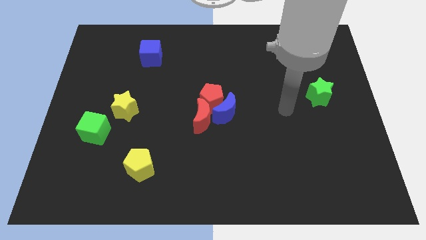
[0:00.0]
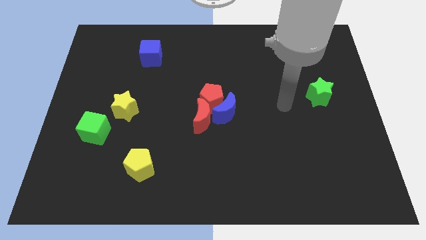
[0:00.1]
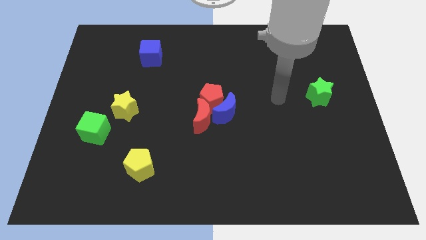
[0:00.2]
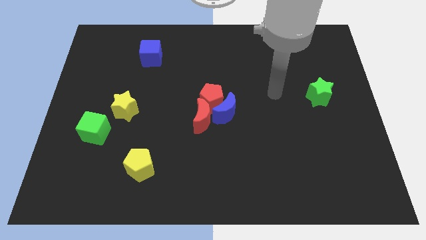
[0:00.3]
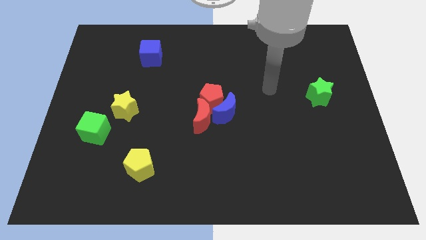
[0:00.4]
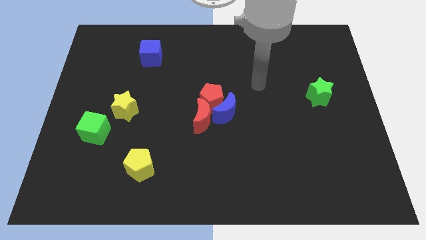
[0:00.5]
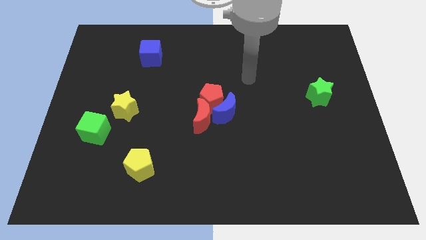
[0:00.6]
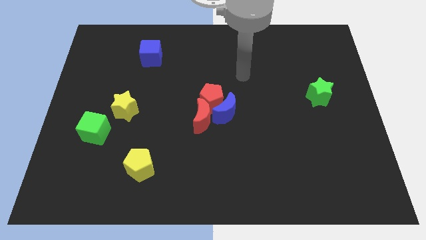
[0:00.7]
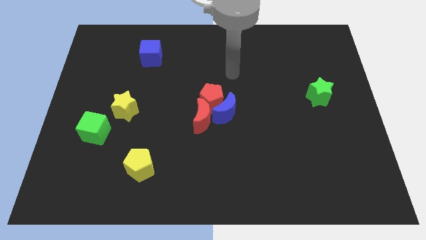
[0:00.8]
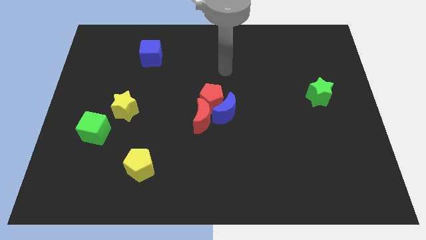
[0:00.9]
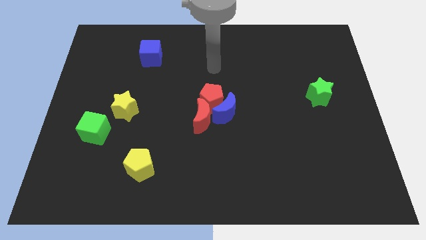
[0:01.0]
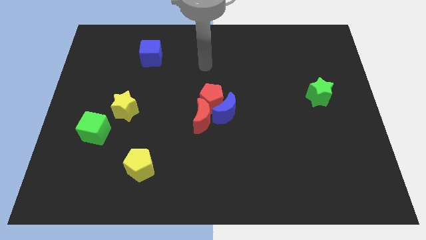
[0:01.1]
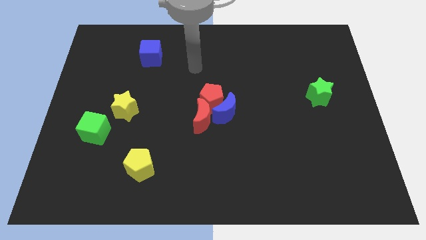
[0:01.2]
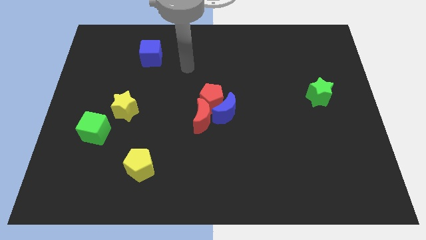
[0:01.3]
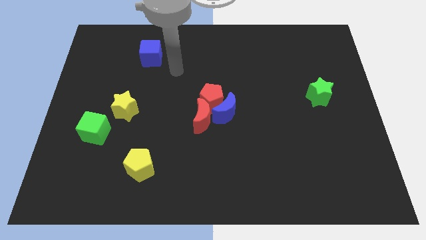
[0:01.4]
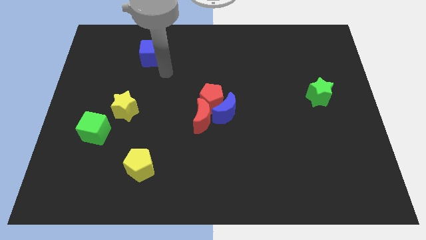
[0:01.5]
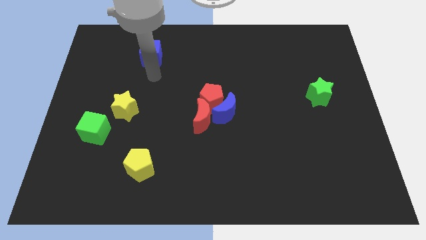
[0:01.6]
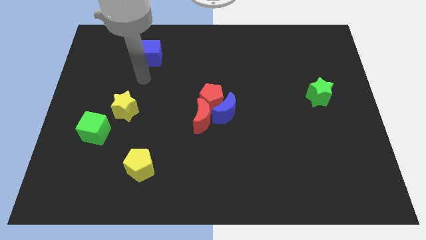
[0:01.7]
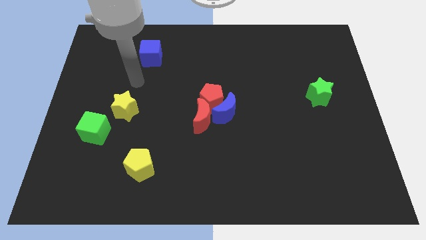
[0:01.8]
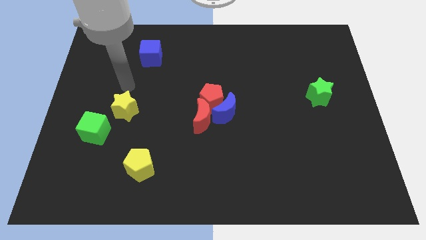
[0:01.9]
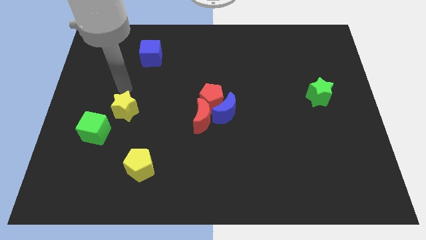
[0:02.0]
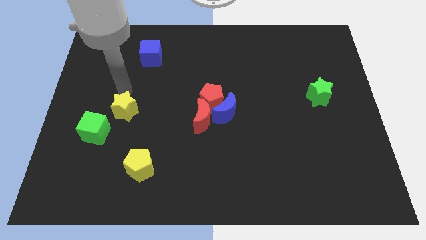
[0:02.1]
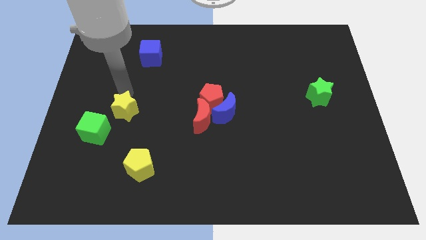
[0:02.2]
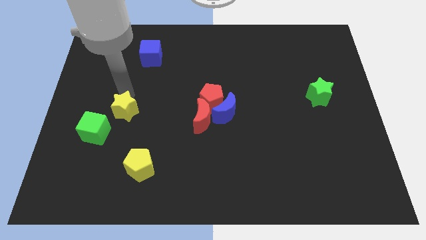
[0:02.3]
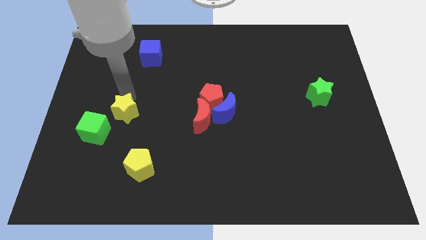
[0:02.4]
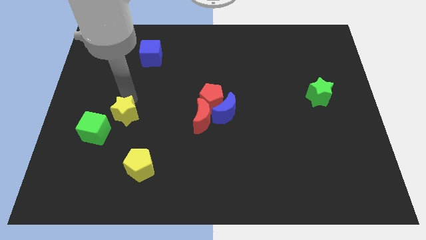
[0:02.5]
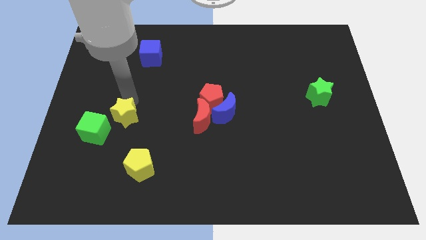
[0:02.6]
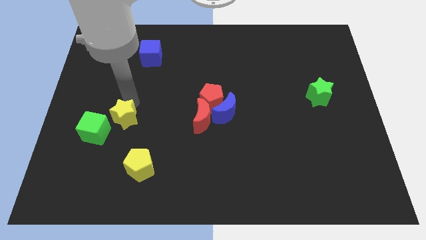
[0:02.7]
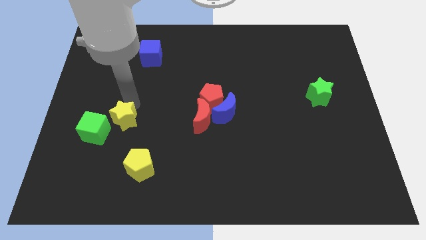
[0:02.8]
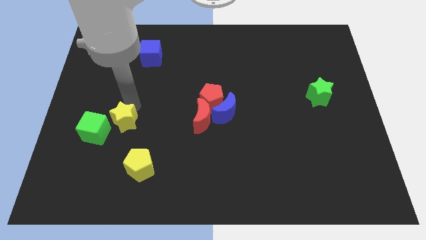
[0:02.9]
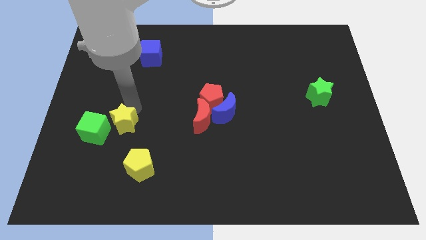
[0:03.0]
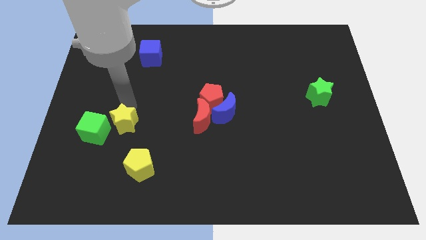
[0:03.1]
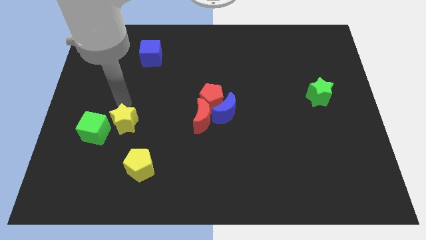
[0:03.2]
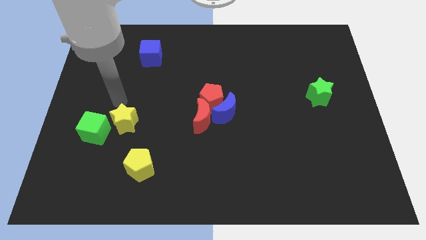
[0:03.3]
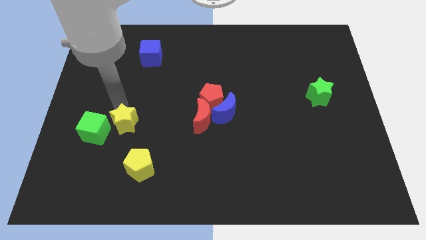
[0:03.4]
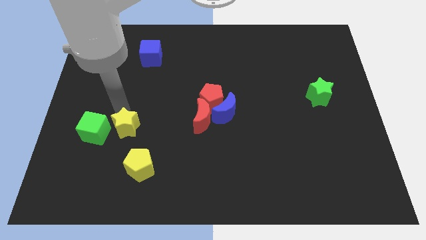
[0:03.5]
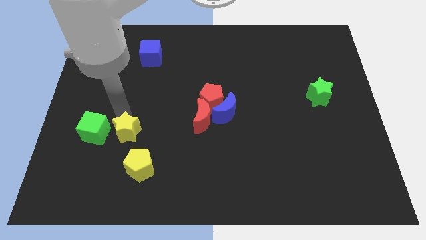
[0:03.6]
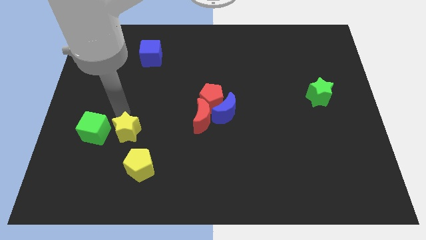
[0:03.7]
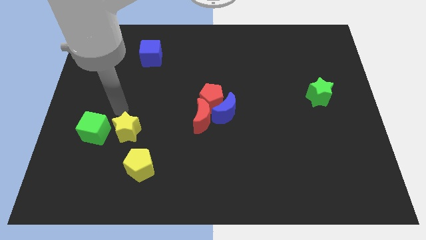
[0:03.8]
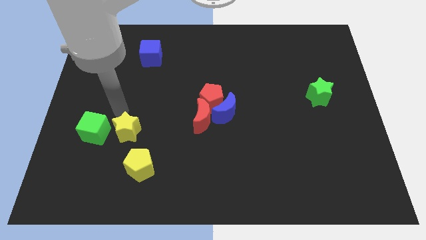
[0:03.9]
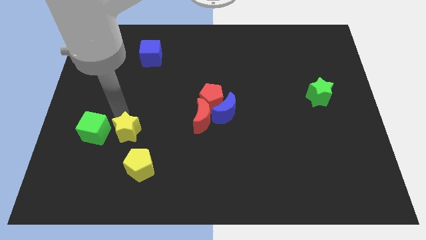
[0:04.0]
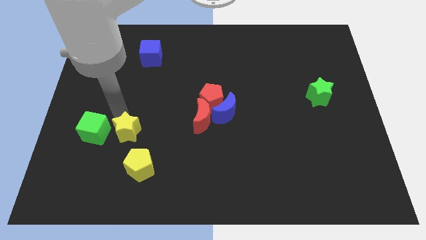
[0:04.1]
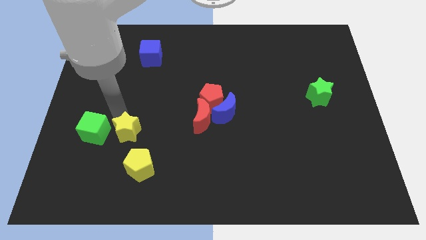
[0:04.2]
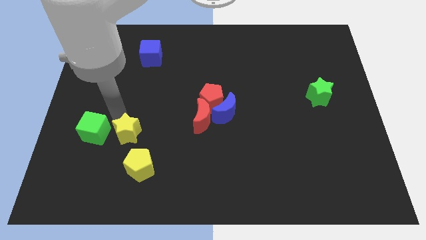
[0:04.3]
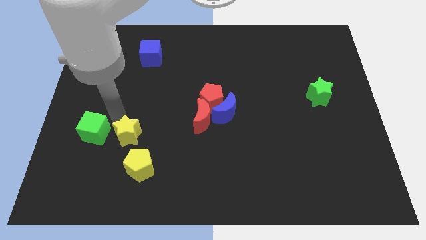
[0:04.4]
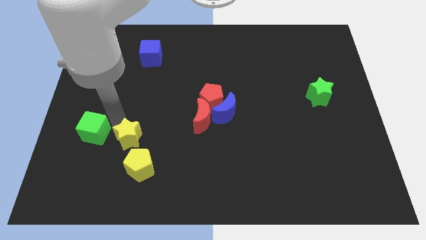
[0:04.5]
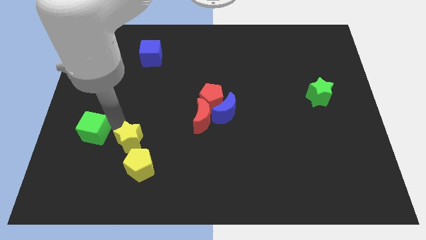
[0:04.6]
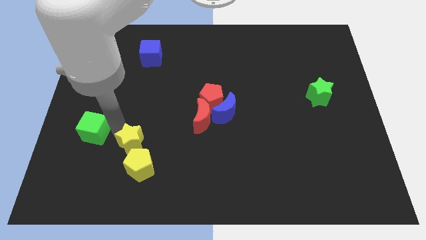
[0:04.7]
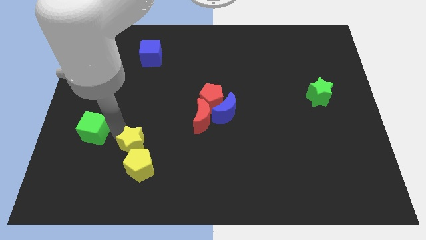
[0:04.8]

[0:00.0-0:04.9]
push the yellow star towards the yellow pentagon

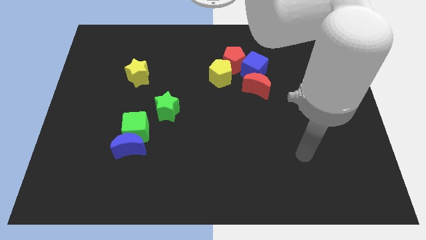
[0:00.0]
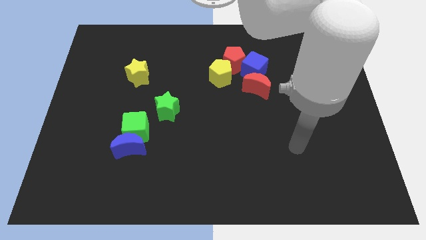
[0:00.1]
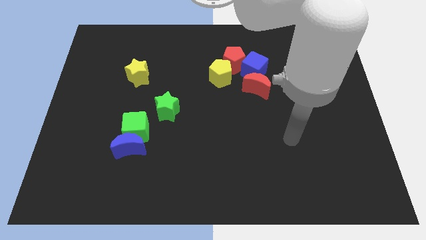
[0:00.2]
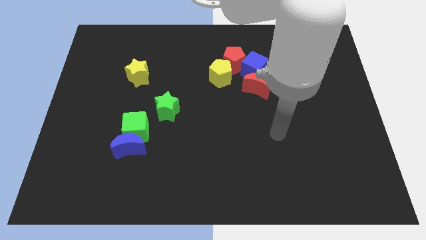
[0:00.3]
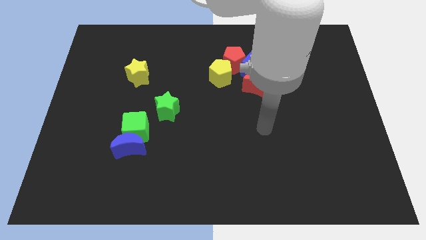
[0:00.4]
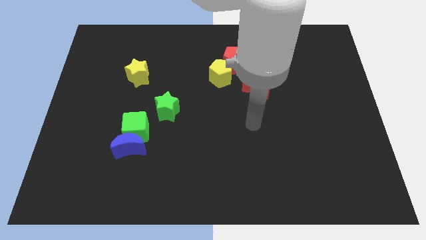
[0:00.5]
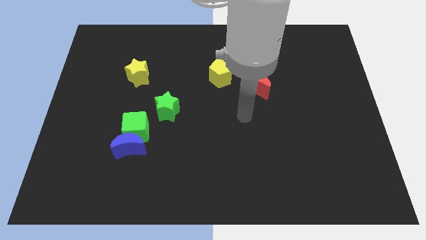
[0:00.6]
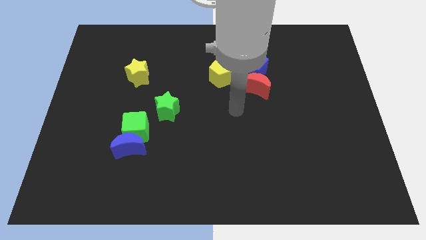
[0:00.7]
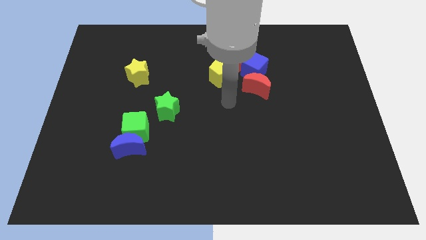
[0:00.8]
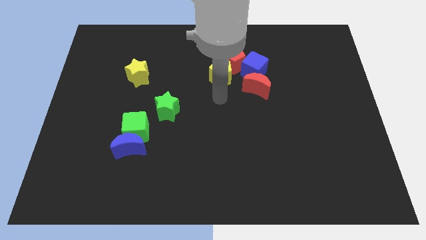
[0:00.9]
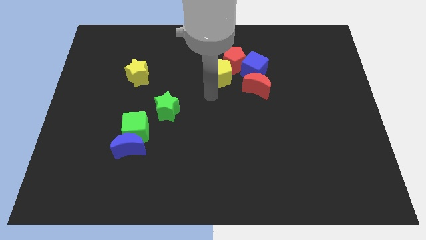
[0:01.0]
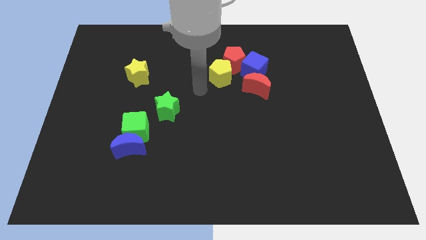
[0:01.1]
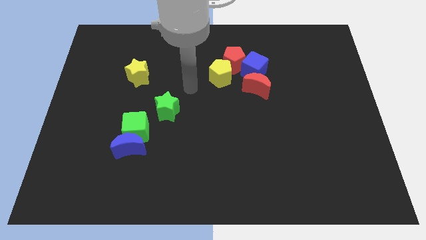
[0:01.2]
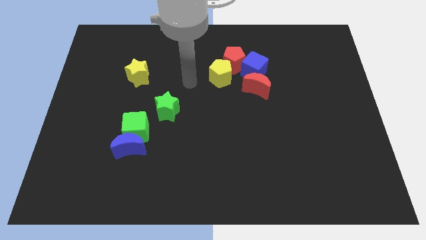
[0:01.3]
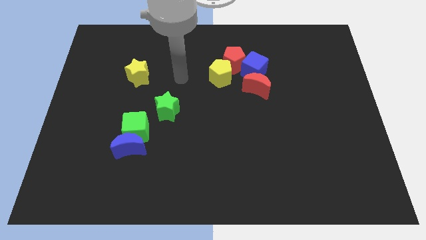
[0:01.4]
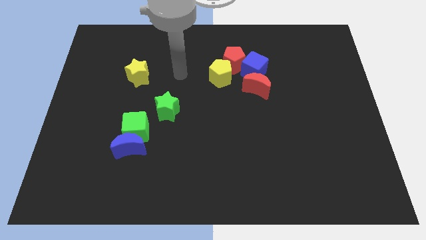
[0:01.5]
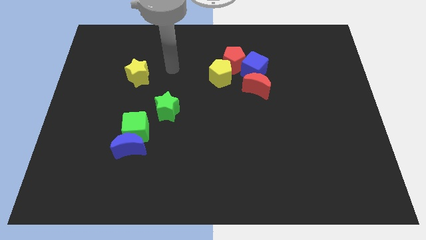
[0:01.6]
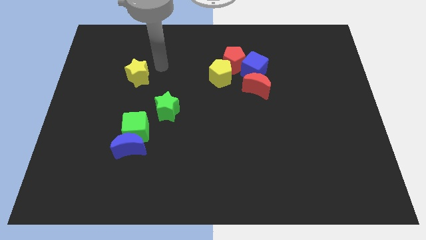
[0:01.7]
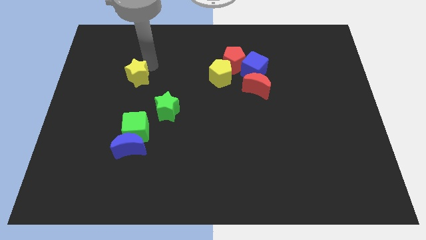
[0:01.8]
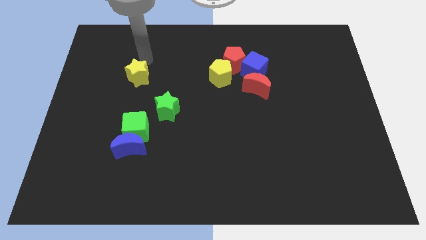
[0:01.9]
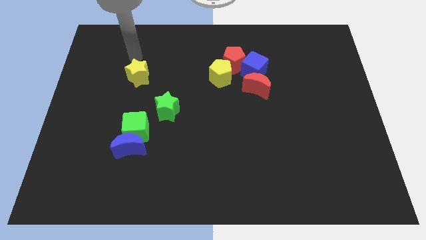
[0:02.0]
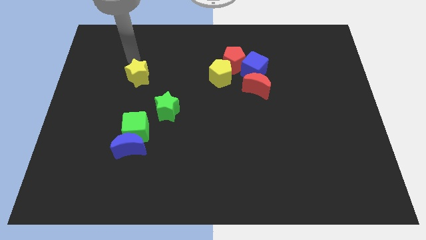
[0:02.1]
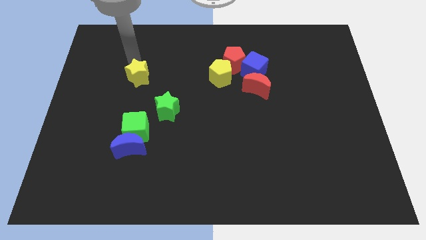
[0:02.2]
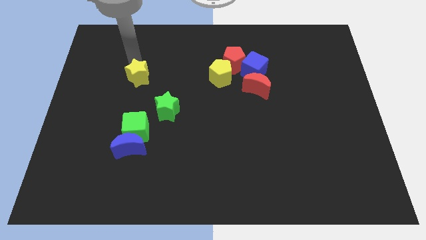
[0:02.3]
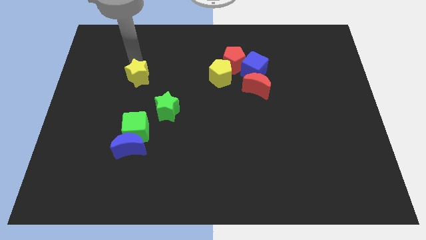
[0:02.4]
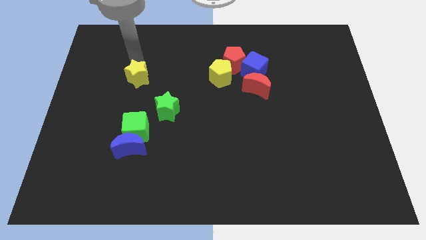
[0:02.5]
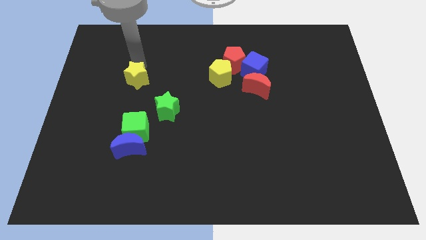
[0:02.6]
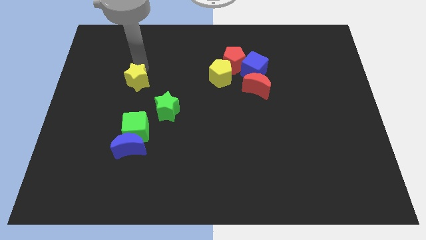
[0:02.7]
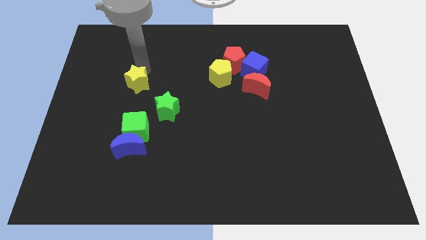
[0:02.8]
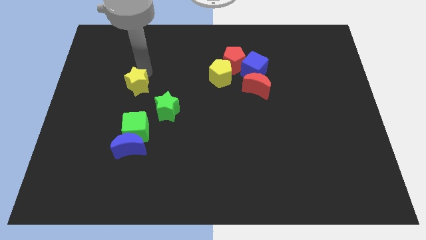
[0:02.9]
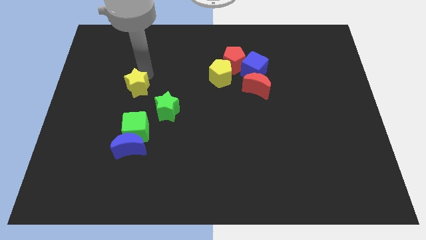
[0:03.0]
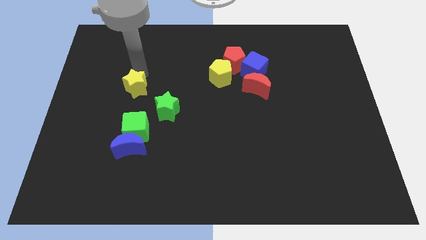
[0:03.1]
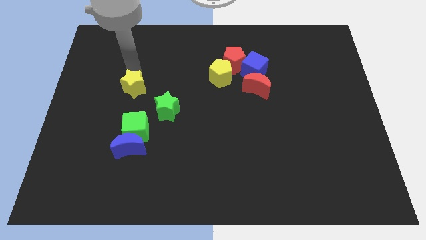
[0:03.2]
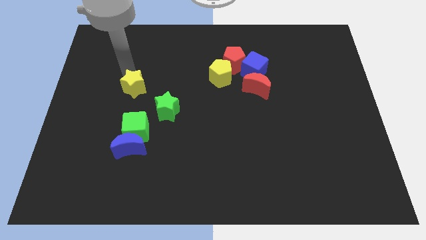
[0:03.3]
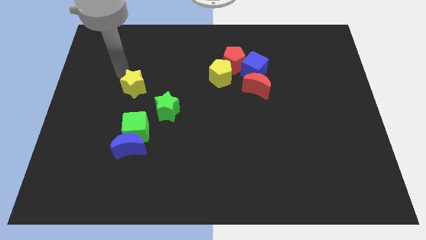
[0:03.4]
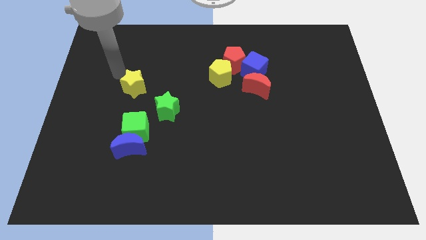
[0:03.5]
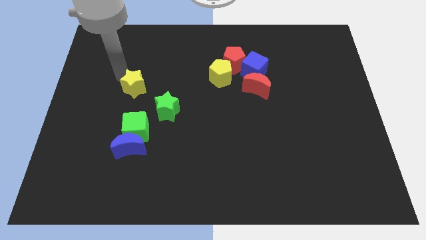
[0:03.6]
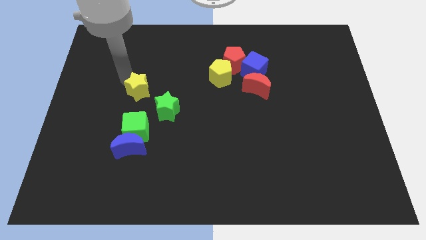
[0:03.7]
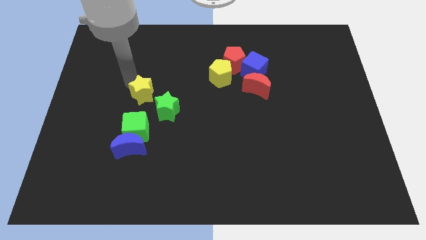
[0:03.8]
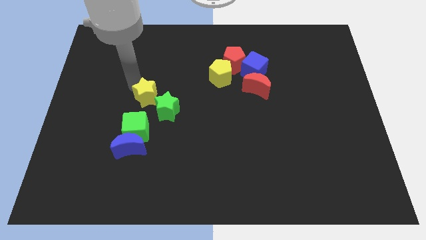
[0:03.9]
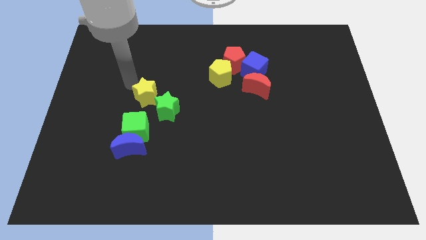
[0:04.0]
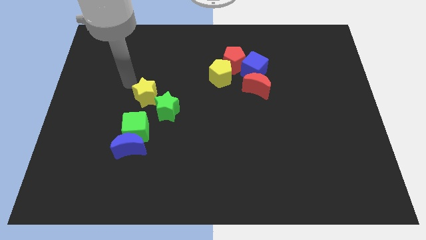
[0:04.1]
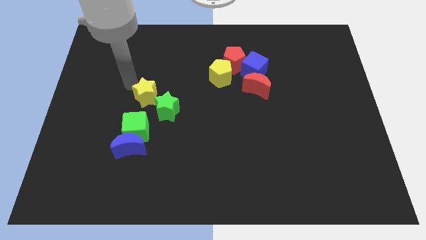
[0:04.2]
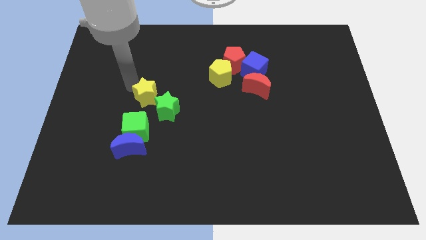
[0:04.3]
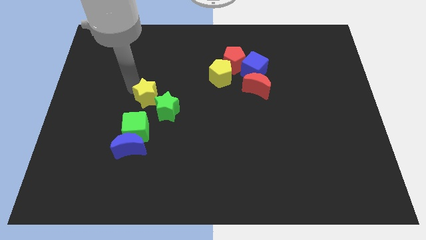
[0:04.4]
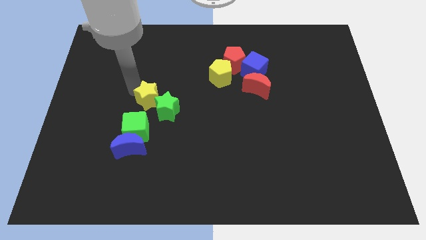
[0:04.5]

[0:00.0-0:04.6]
push the yellow star towards the green star
